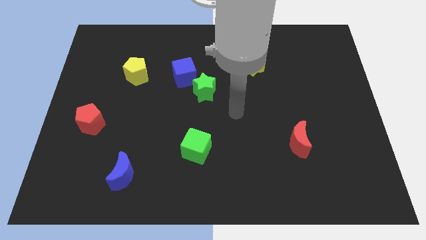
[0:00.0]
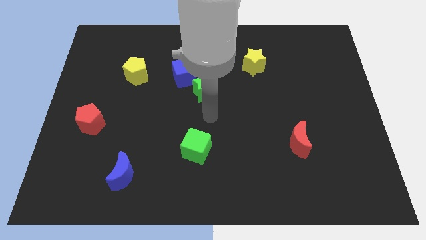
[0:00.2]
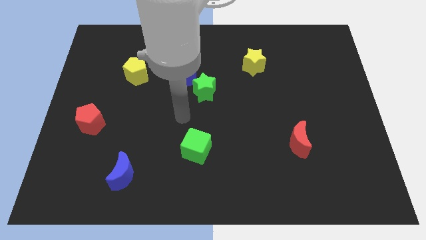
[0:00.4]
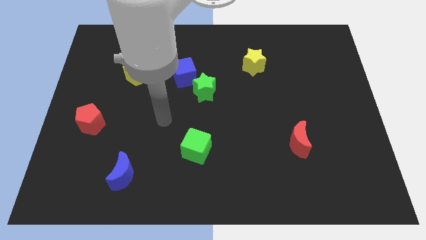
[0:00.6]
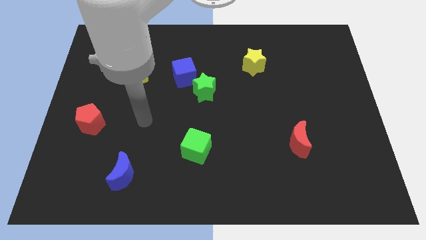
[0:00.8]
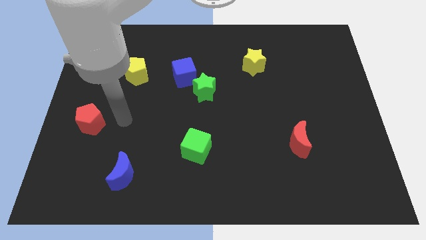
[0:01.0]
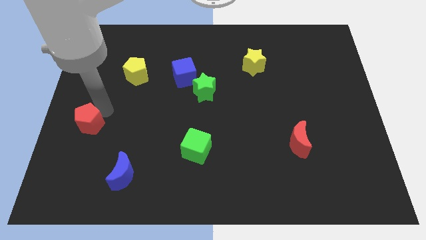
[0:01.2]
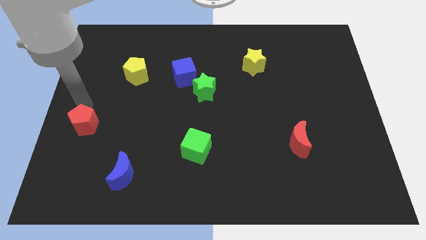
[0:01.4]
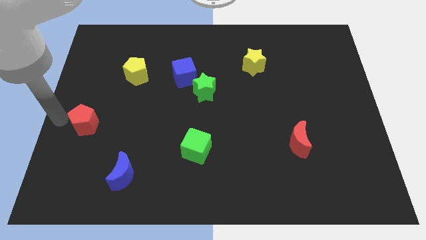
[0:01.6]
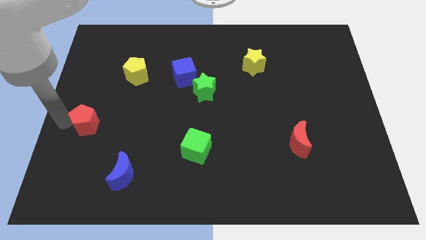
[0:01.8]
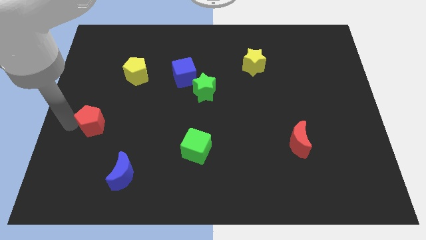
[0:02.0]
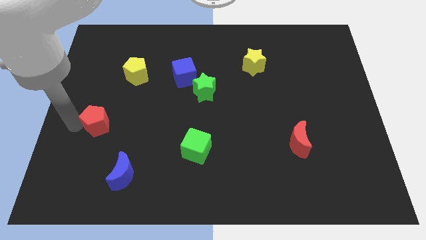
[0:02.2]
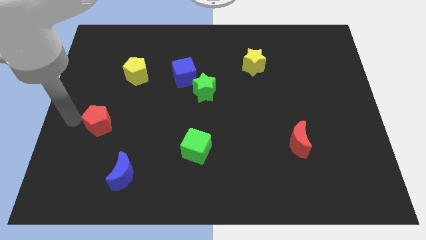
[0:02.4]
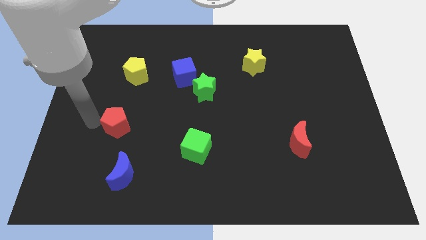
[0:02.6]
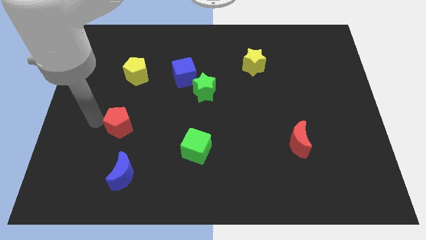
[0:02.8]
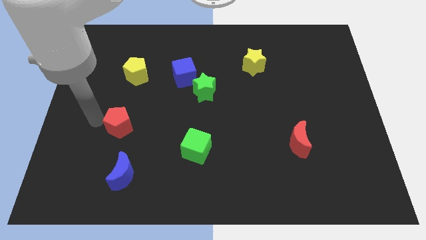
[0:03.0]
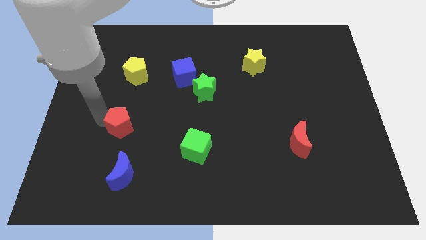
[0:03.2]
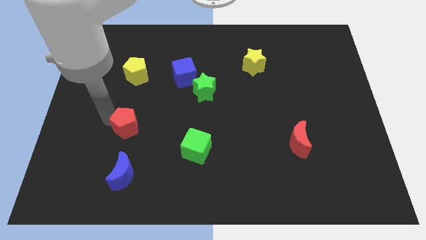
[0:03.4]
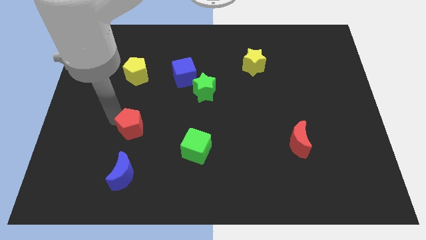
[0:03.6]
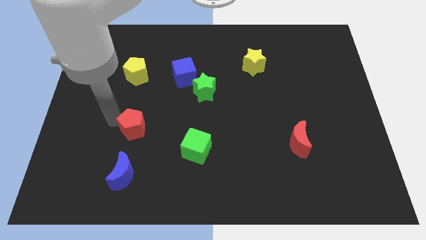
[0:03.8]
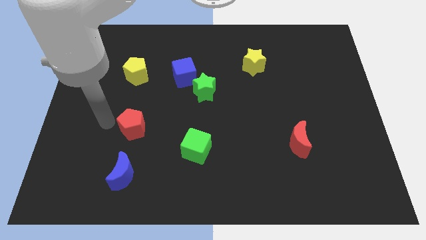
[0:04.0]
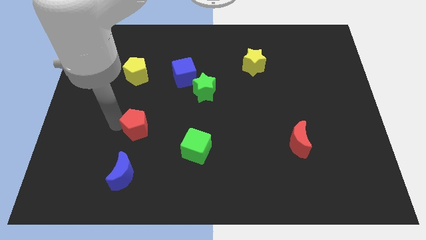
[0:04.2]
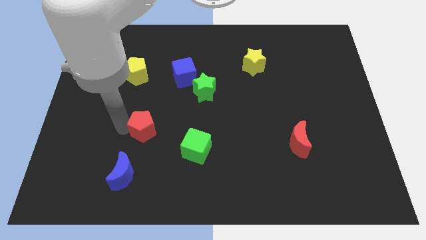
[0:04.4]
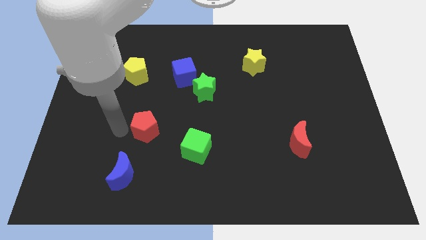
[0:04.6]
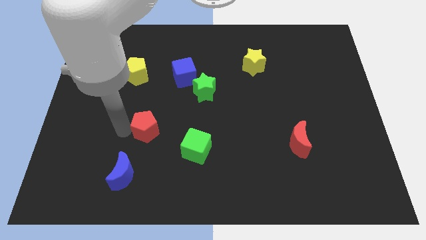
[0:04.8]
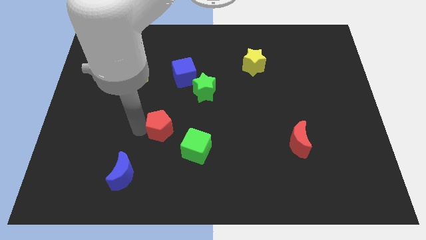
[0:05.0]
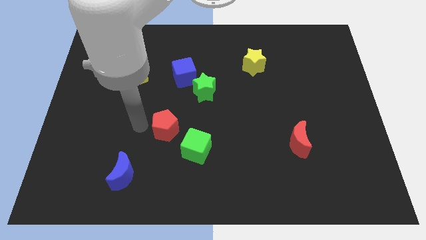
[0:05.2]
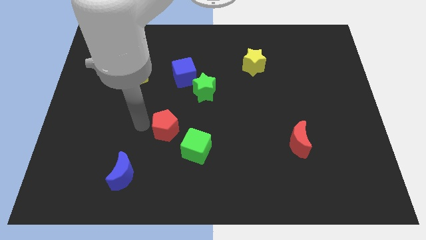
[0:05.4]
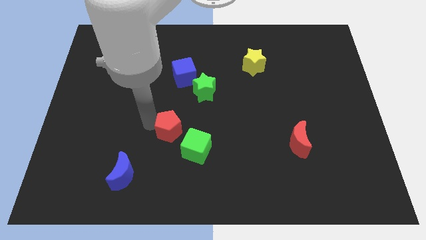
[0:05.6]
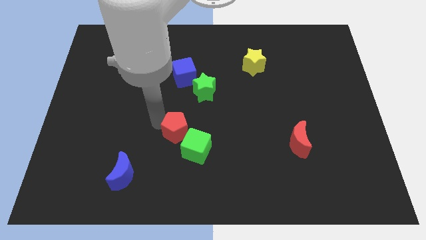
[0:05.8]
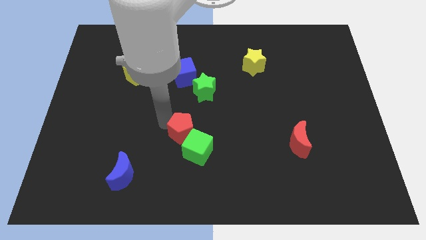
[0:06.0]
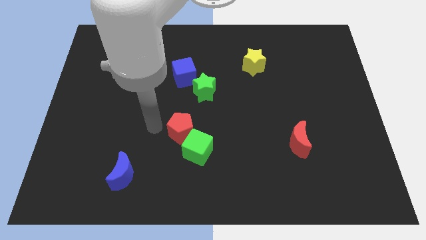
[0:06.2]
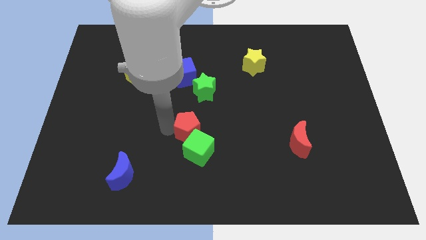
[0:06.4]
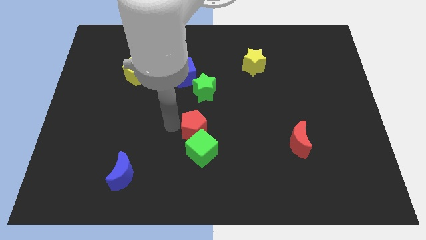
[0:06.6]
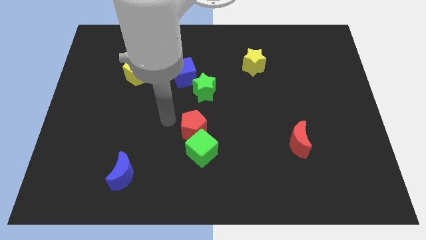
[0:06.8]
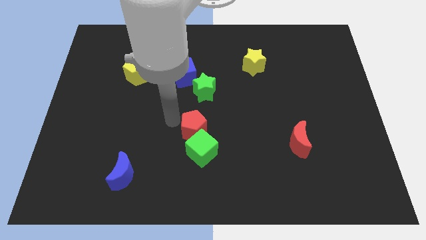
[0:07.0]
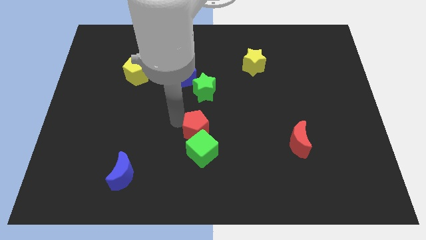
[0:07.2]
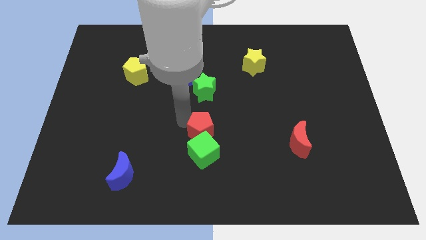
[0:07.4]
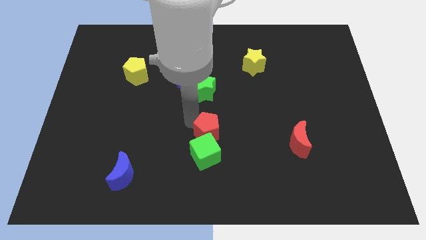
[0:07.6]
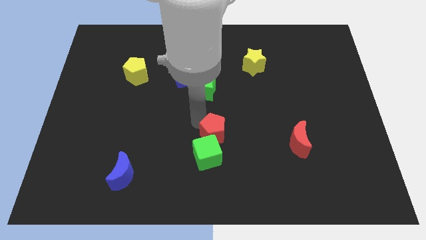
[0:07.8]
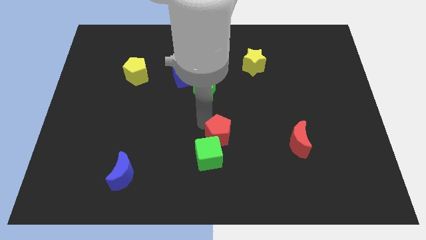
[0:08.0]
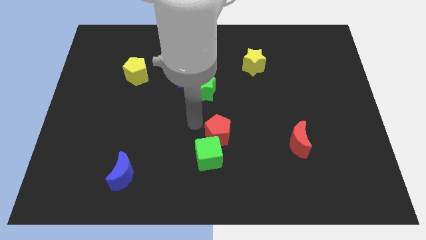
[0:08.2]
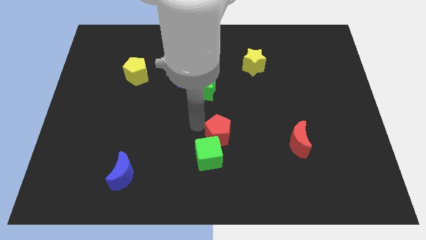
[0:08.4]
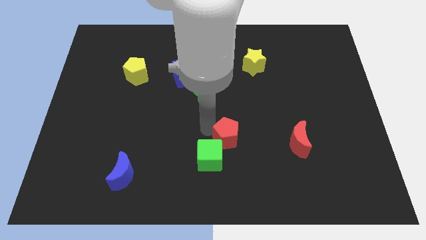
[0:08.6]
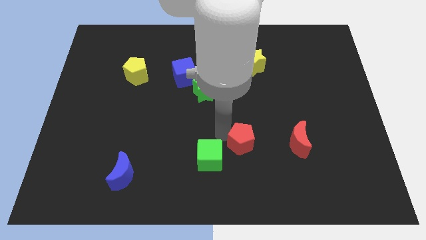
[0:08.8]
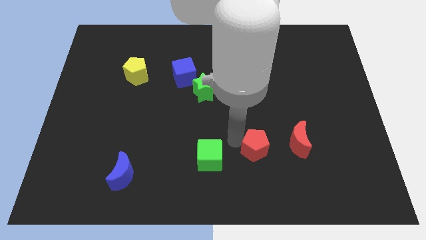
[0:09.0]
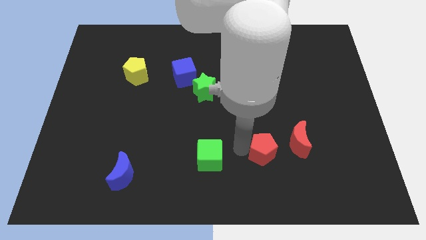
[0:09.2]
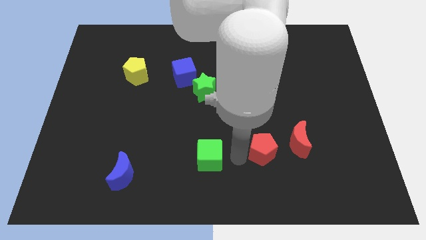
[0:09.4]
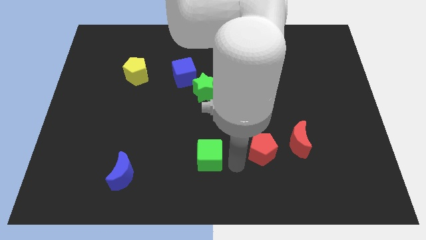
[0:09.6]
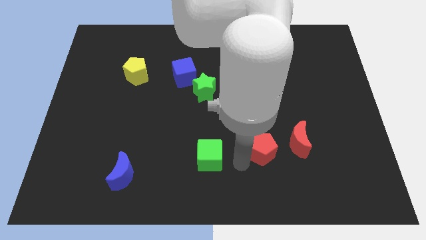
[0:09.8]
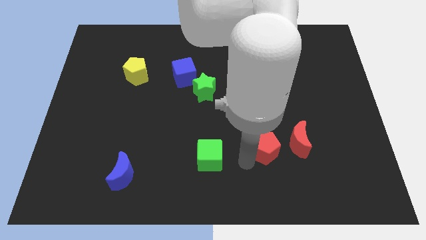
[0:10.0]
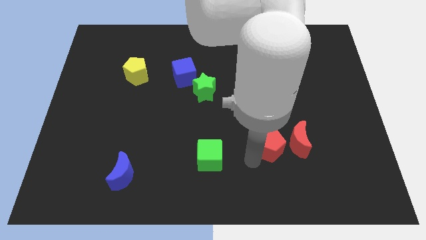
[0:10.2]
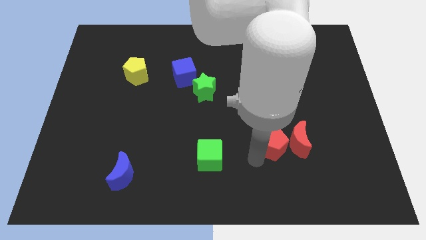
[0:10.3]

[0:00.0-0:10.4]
move the red pentagon to the red moon

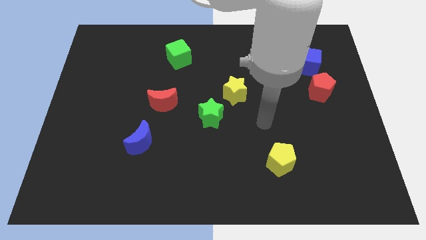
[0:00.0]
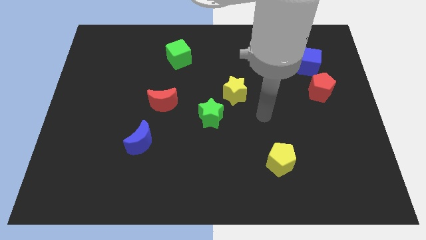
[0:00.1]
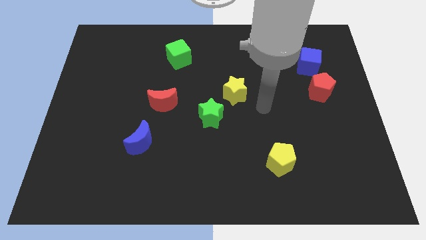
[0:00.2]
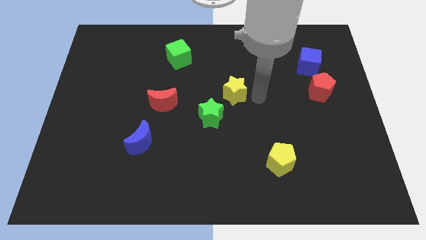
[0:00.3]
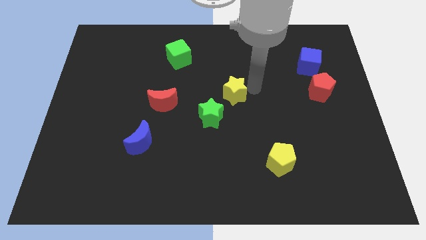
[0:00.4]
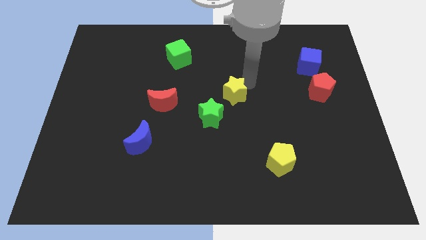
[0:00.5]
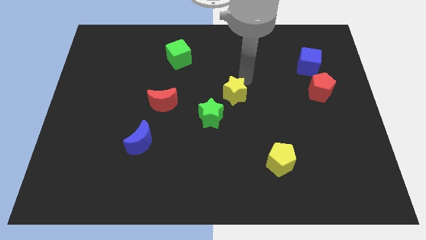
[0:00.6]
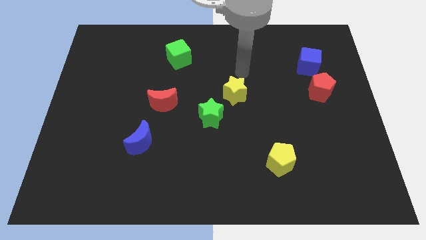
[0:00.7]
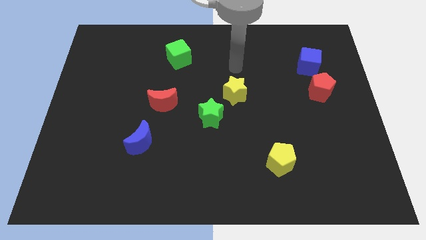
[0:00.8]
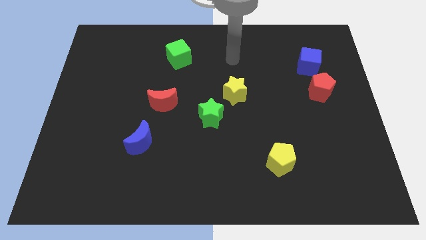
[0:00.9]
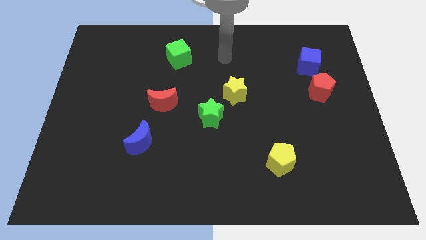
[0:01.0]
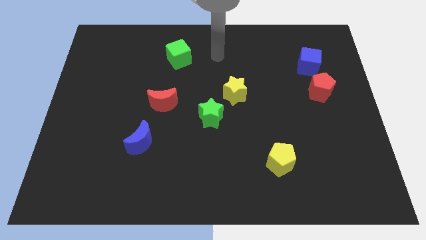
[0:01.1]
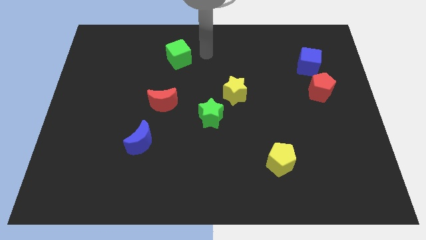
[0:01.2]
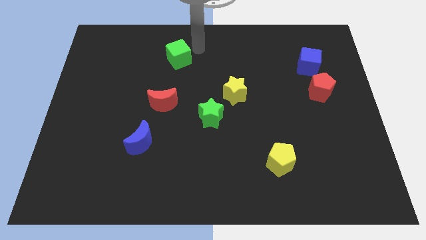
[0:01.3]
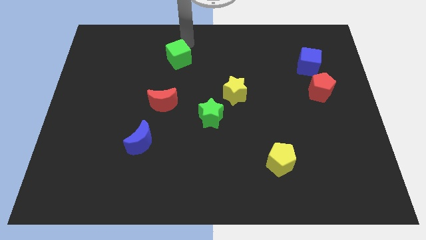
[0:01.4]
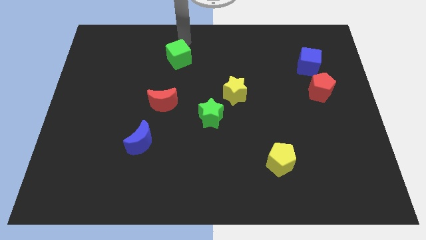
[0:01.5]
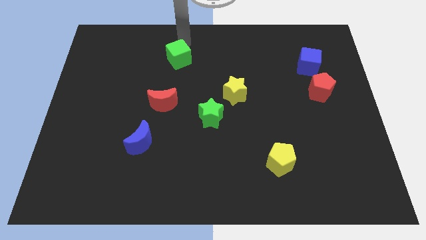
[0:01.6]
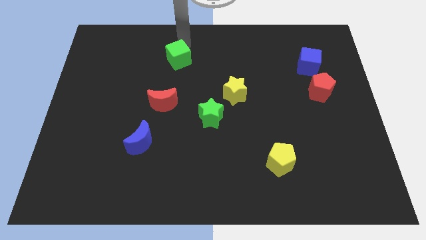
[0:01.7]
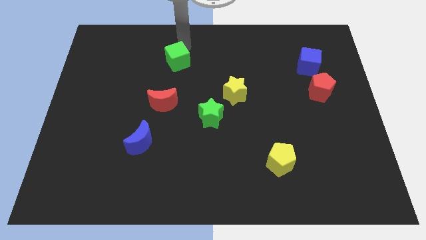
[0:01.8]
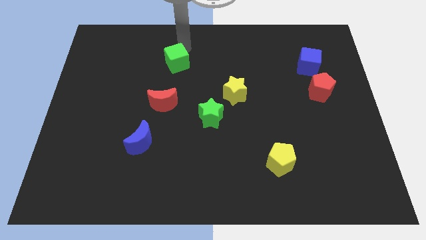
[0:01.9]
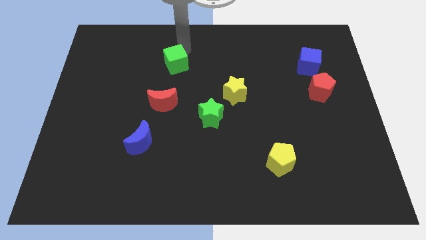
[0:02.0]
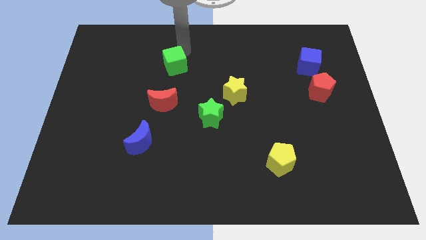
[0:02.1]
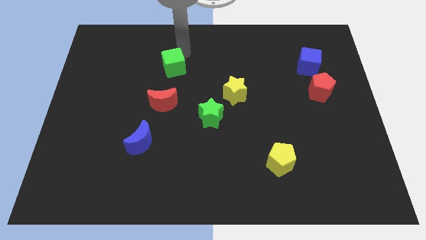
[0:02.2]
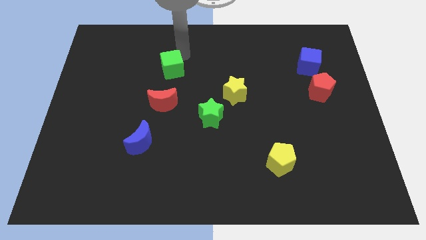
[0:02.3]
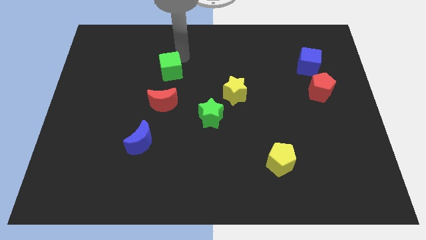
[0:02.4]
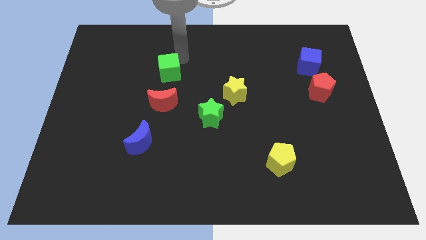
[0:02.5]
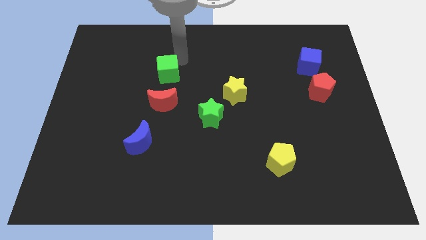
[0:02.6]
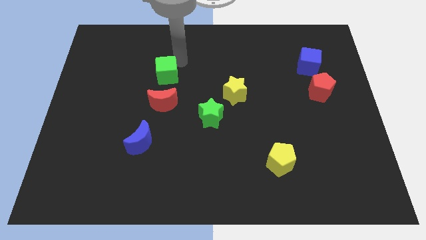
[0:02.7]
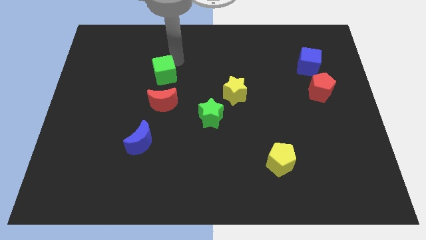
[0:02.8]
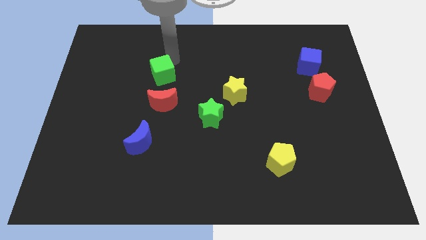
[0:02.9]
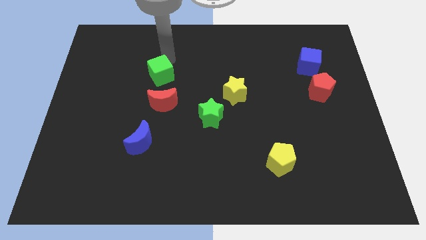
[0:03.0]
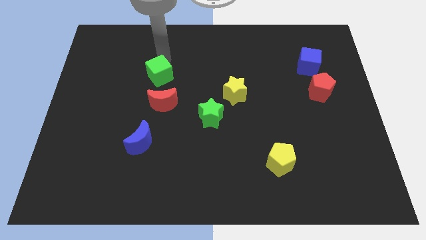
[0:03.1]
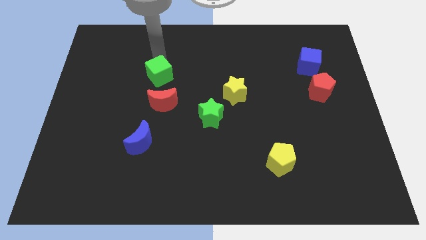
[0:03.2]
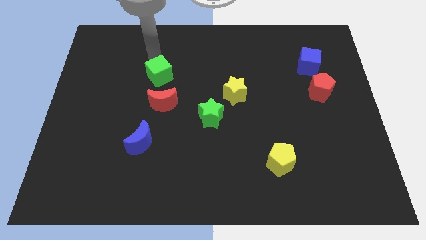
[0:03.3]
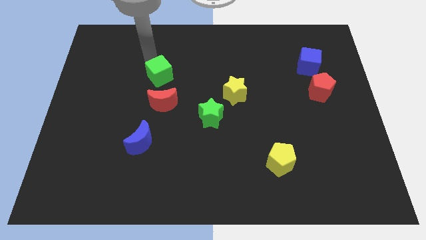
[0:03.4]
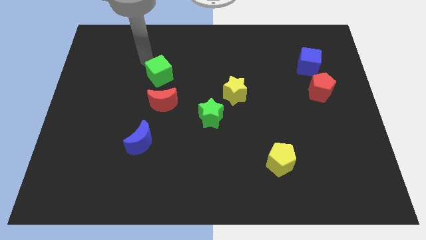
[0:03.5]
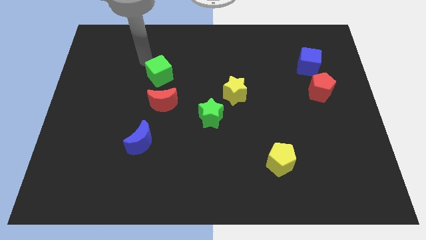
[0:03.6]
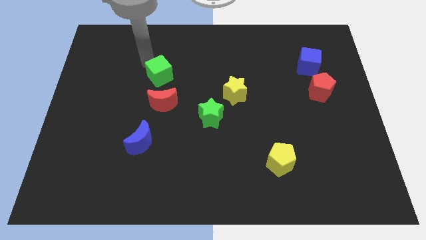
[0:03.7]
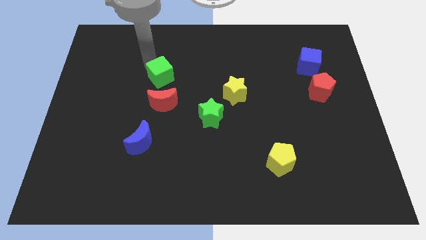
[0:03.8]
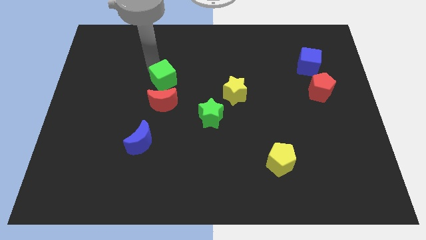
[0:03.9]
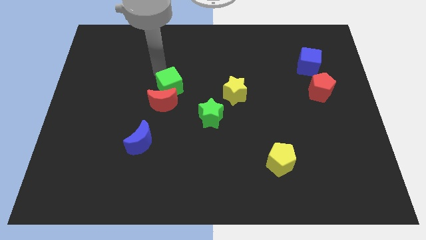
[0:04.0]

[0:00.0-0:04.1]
slide the green cube close to the red moon
